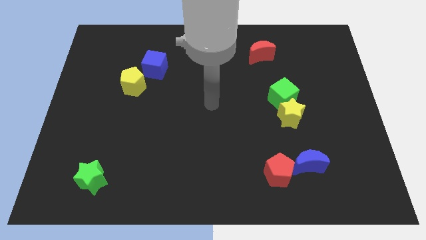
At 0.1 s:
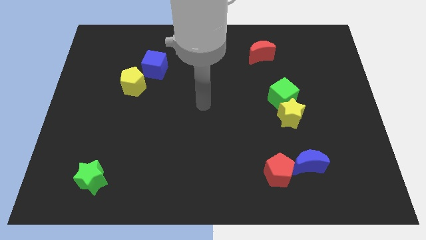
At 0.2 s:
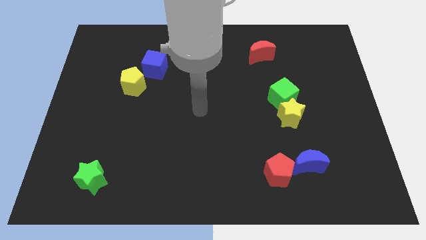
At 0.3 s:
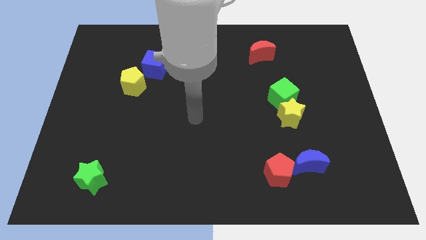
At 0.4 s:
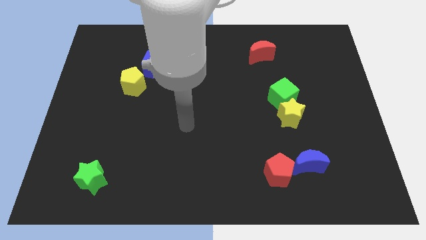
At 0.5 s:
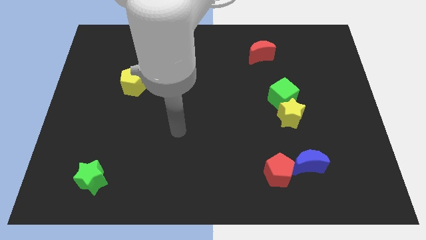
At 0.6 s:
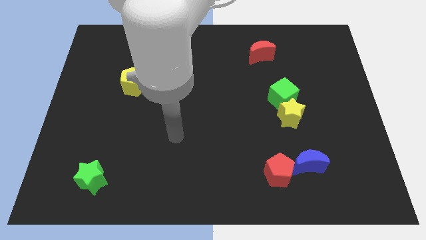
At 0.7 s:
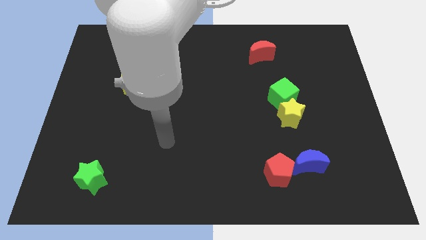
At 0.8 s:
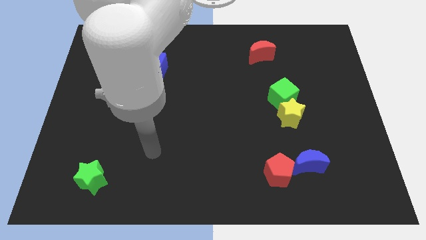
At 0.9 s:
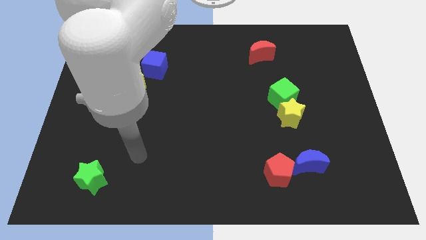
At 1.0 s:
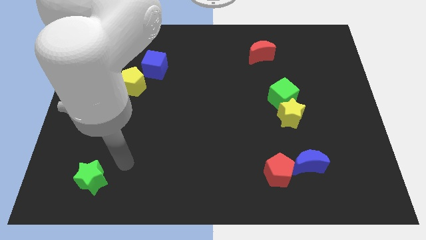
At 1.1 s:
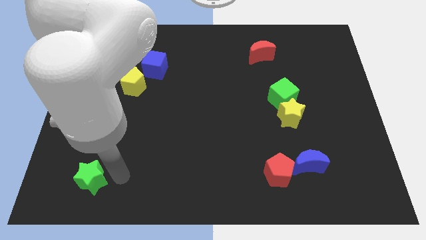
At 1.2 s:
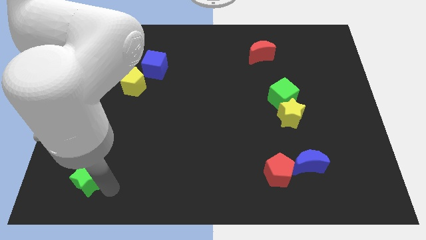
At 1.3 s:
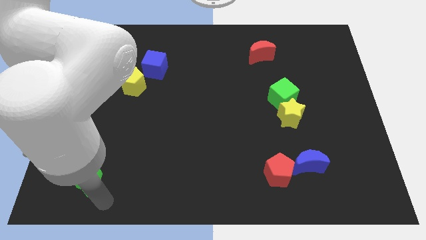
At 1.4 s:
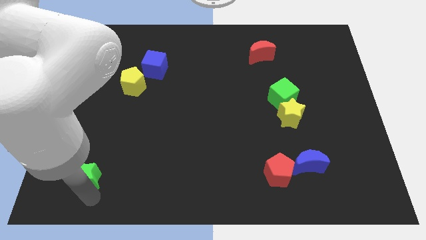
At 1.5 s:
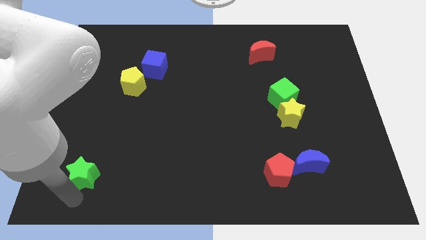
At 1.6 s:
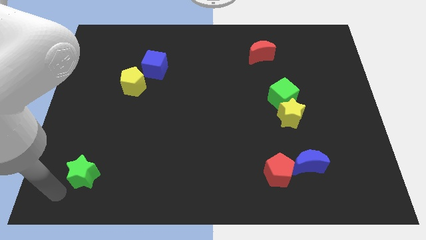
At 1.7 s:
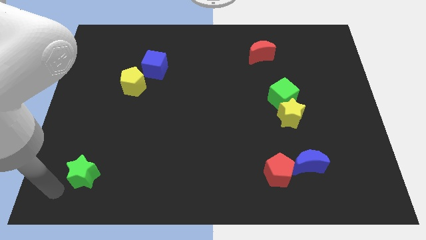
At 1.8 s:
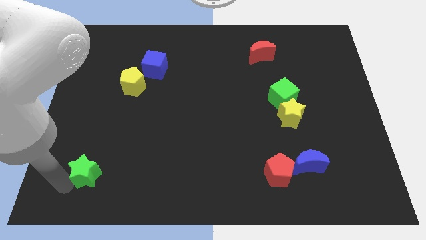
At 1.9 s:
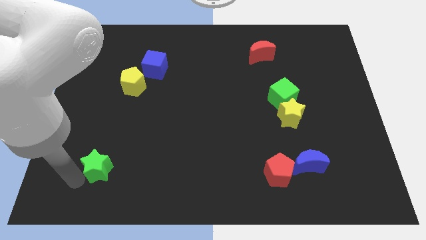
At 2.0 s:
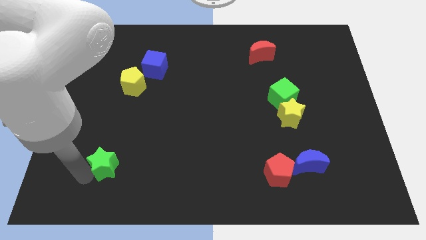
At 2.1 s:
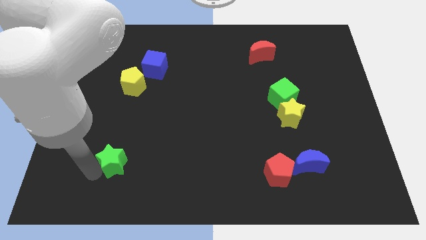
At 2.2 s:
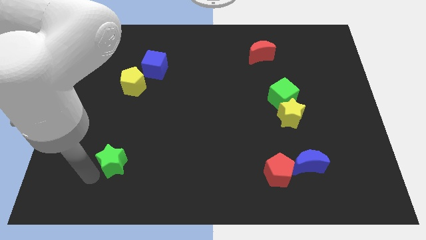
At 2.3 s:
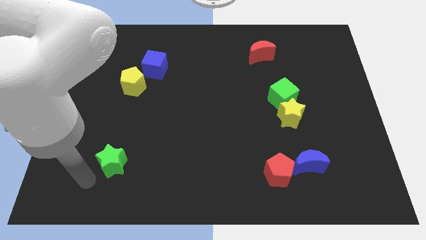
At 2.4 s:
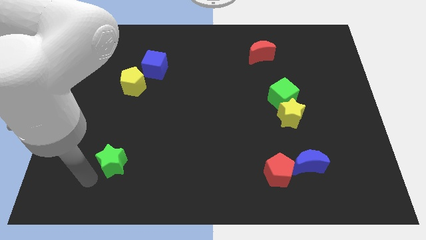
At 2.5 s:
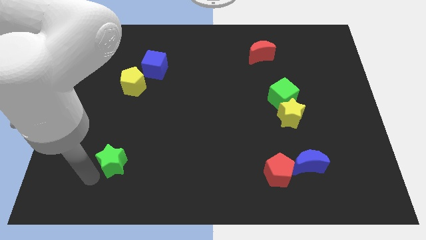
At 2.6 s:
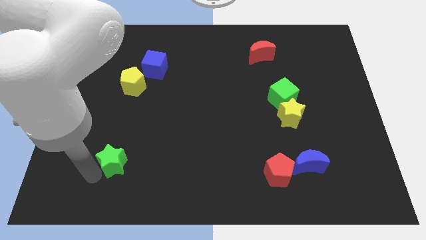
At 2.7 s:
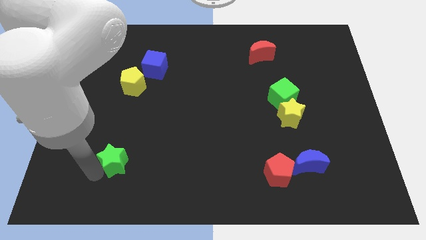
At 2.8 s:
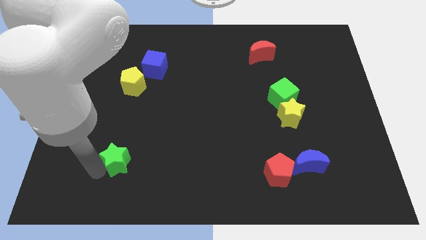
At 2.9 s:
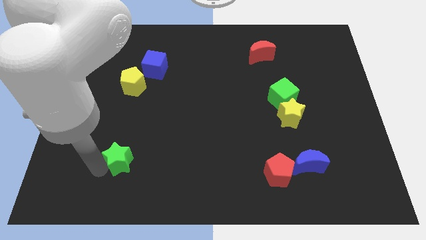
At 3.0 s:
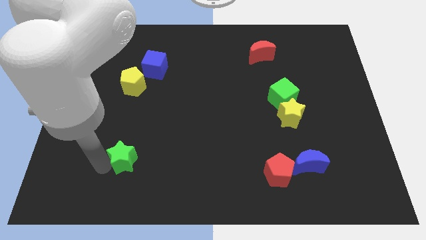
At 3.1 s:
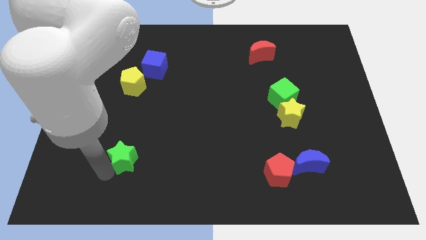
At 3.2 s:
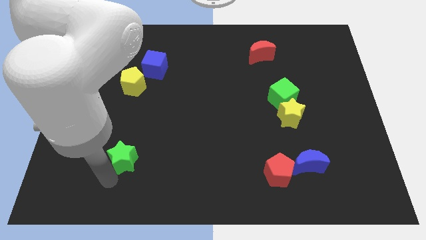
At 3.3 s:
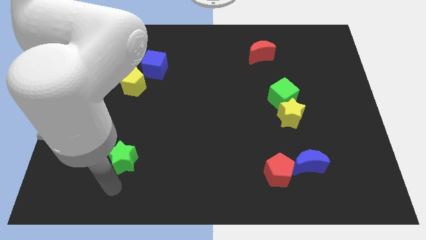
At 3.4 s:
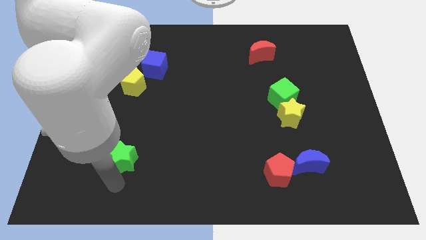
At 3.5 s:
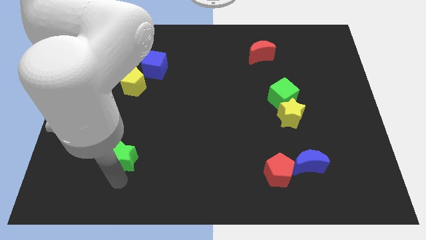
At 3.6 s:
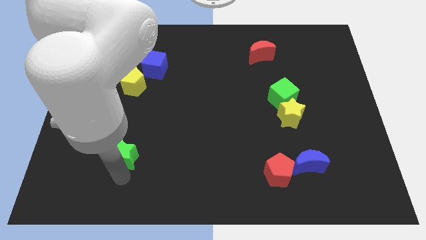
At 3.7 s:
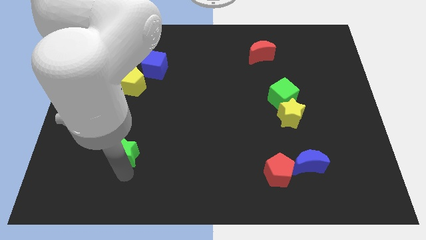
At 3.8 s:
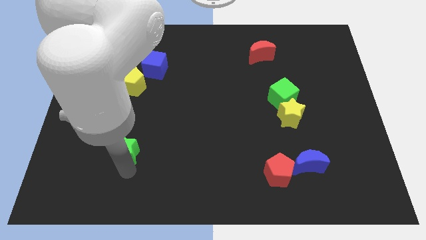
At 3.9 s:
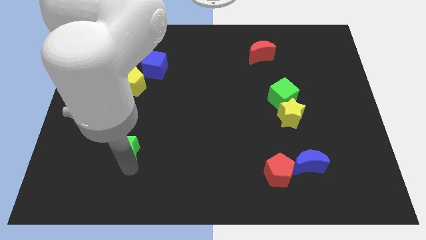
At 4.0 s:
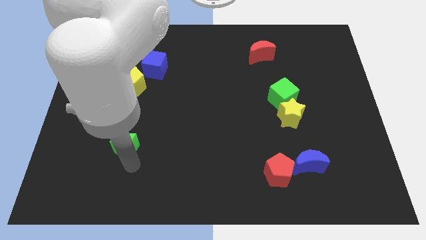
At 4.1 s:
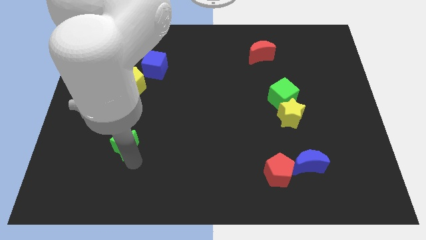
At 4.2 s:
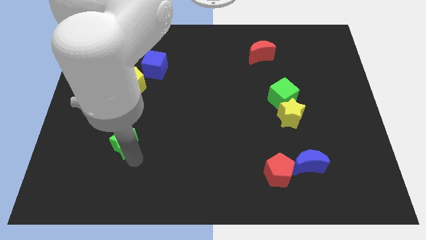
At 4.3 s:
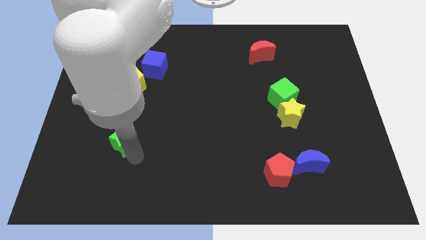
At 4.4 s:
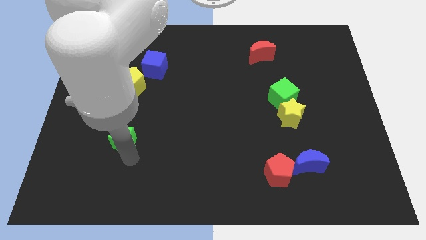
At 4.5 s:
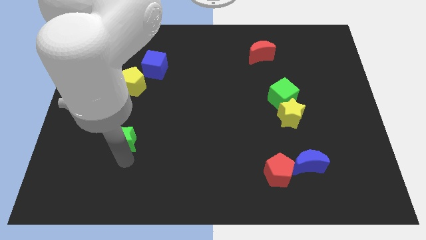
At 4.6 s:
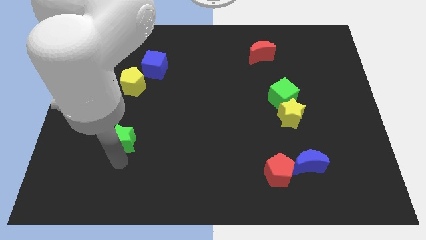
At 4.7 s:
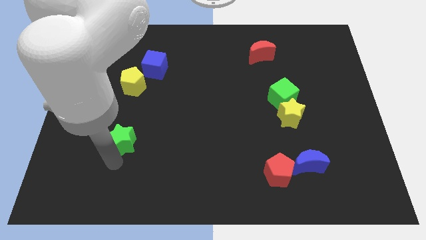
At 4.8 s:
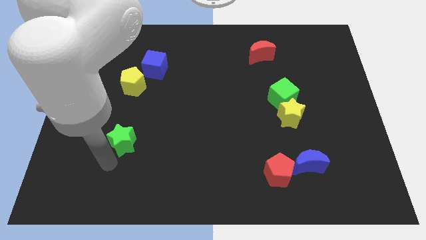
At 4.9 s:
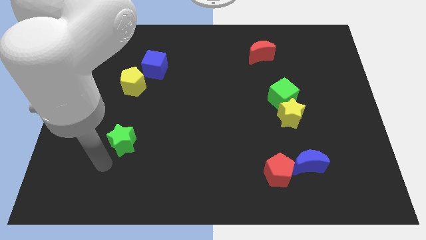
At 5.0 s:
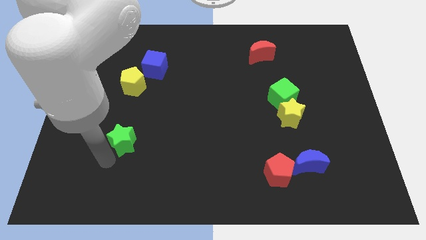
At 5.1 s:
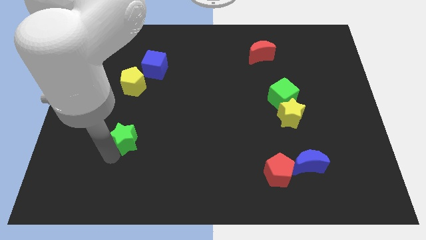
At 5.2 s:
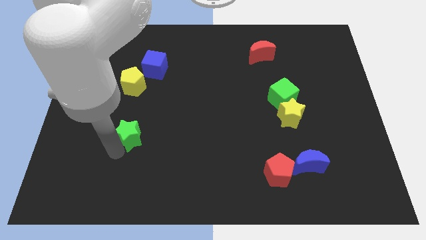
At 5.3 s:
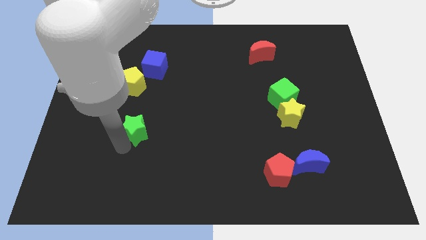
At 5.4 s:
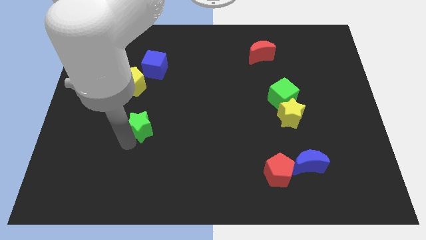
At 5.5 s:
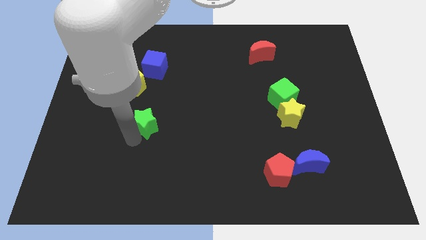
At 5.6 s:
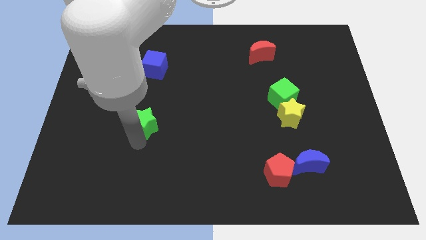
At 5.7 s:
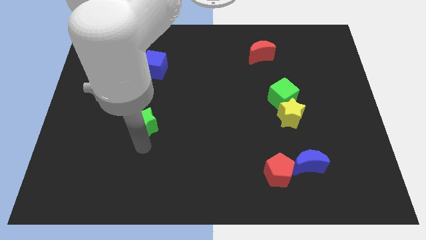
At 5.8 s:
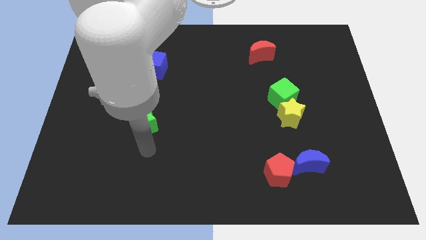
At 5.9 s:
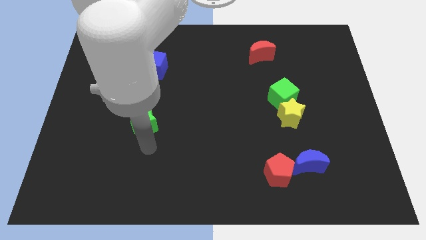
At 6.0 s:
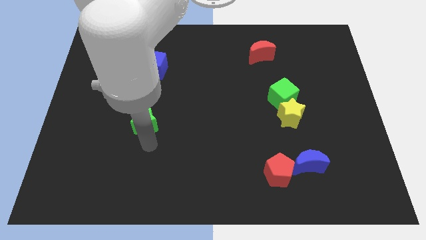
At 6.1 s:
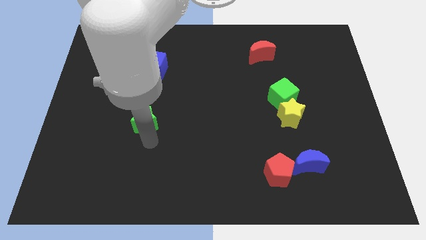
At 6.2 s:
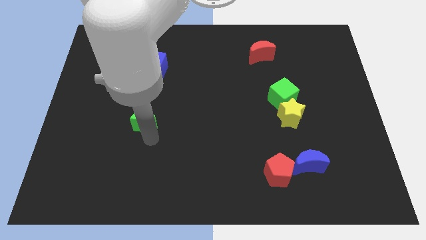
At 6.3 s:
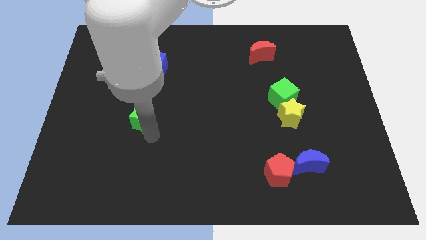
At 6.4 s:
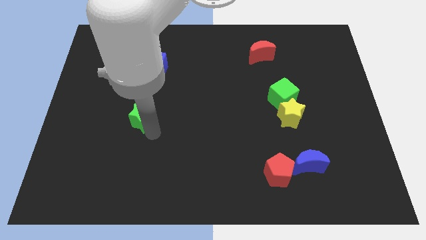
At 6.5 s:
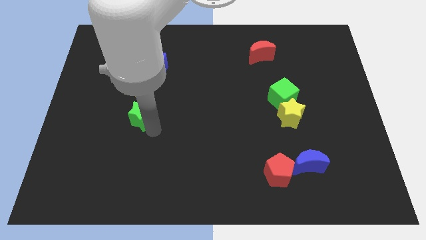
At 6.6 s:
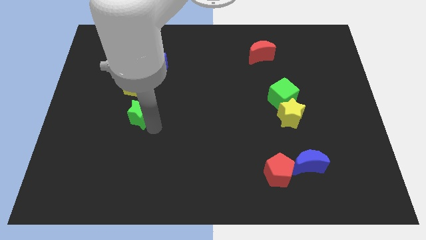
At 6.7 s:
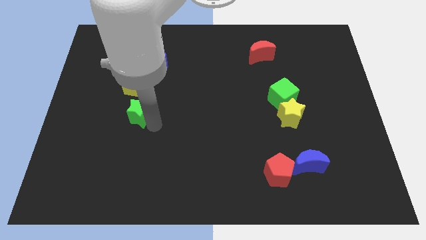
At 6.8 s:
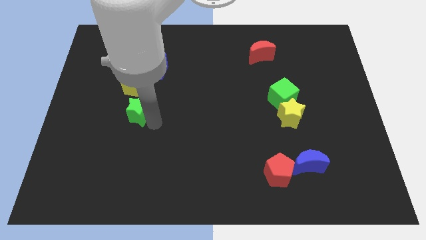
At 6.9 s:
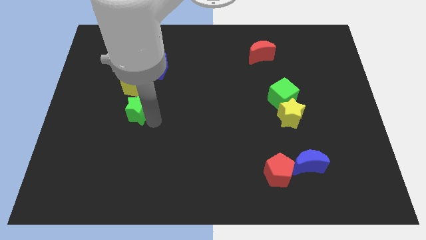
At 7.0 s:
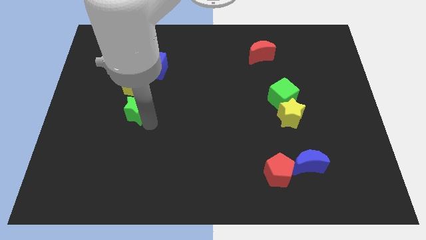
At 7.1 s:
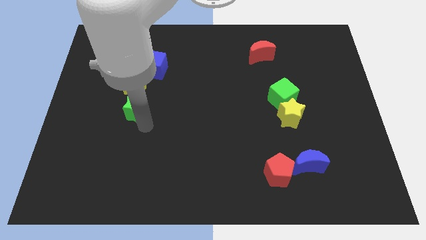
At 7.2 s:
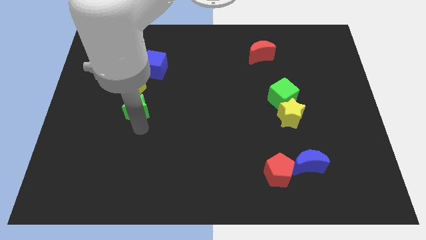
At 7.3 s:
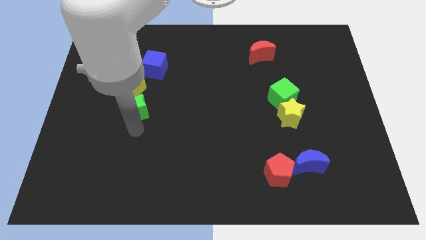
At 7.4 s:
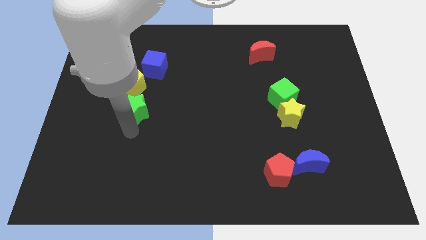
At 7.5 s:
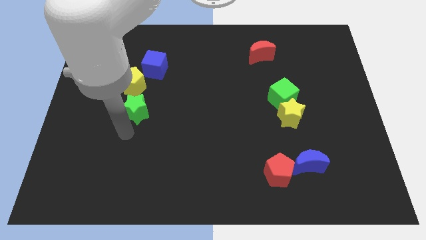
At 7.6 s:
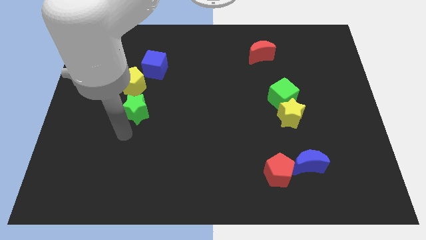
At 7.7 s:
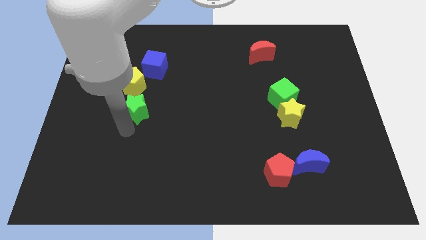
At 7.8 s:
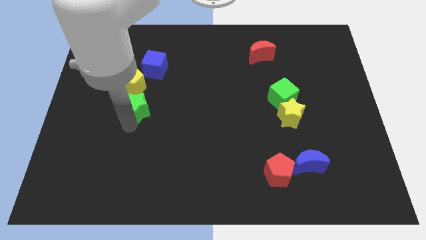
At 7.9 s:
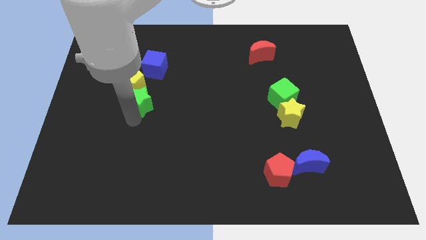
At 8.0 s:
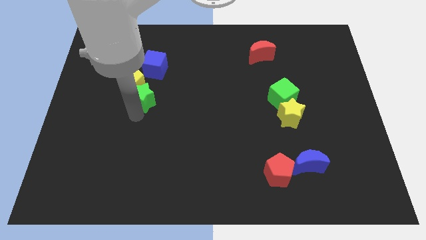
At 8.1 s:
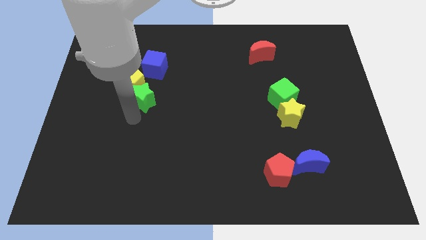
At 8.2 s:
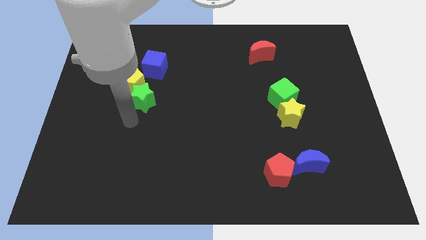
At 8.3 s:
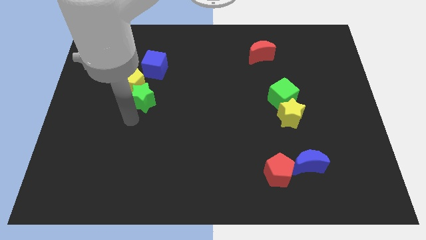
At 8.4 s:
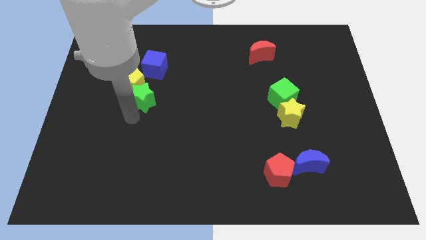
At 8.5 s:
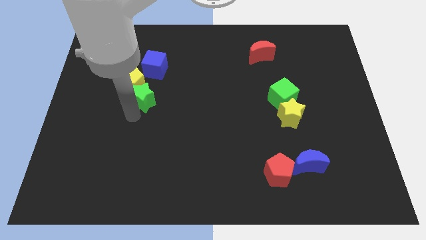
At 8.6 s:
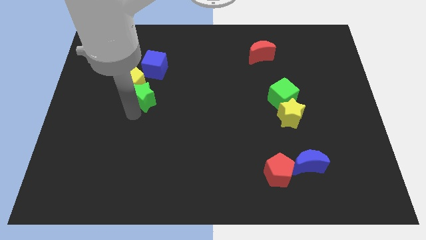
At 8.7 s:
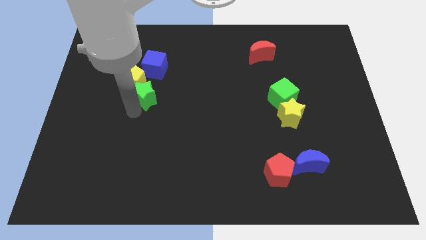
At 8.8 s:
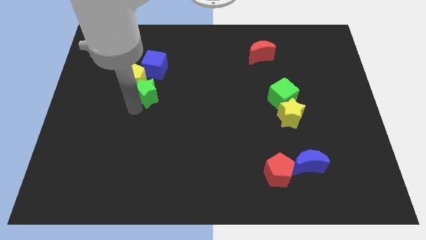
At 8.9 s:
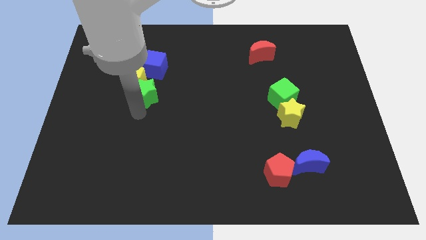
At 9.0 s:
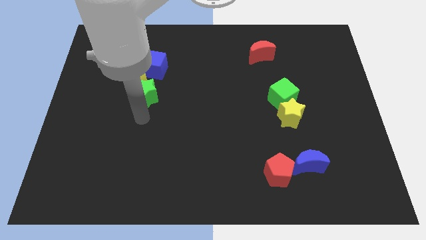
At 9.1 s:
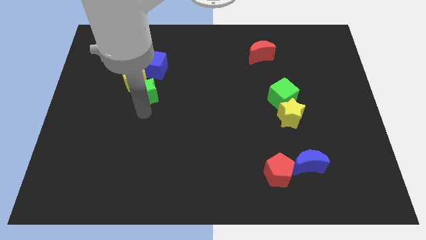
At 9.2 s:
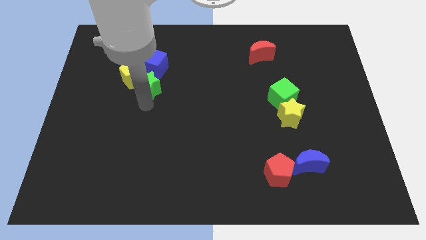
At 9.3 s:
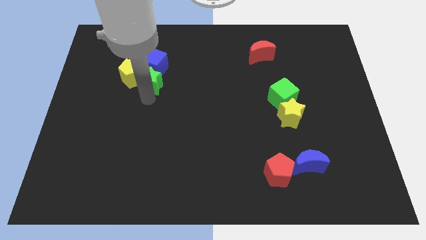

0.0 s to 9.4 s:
put the green star towards the blue cube
